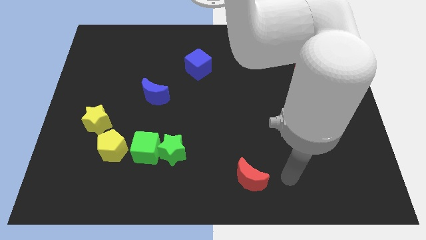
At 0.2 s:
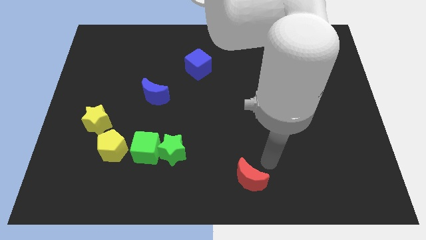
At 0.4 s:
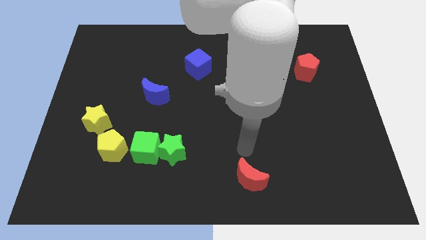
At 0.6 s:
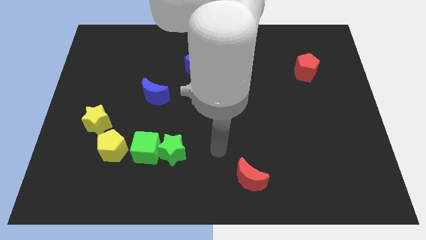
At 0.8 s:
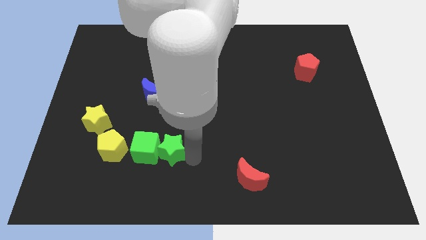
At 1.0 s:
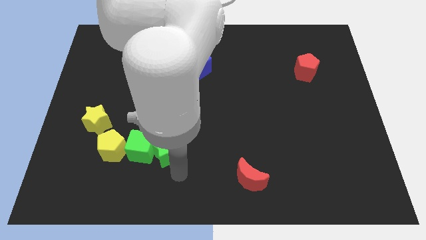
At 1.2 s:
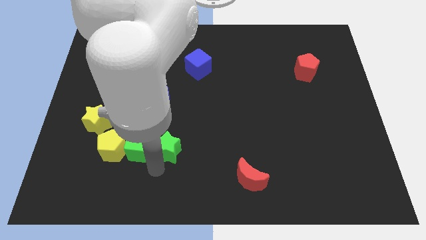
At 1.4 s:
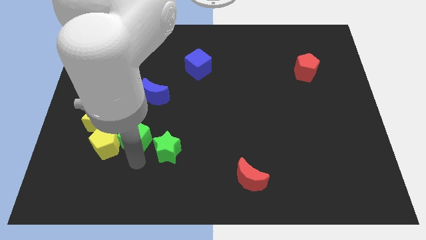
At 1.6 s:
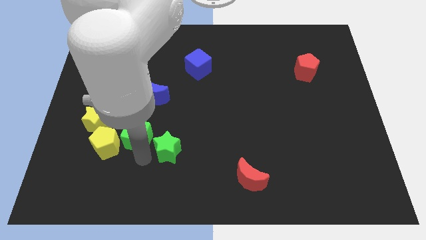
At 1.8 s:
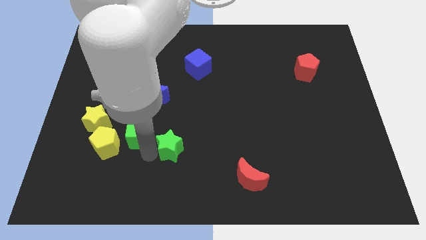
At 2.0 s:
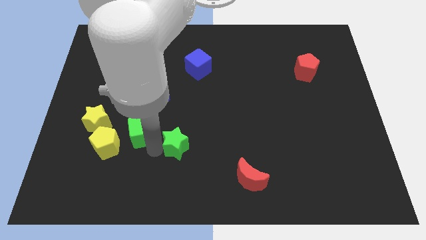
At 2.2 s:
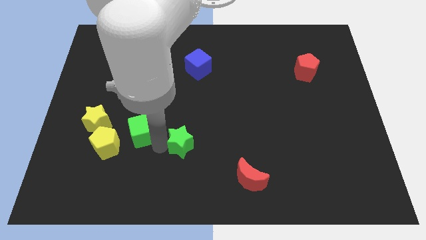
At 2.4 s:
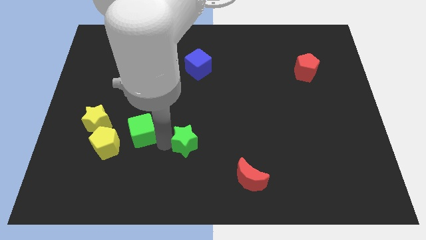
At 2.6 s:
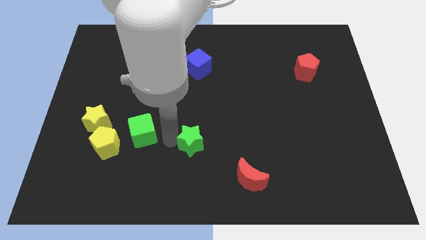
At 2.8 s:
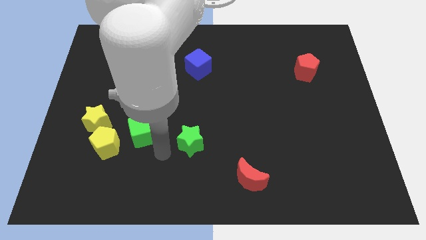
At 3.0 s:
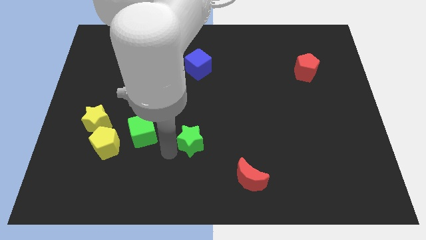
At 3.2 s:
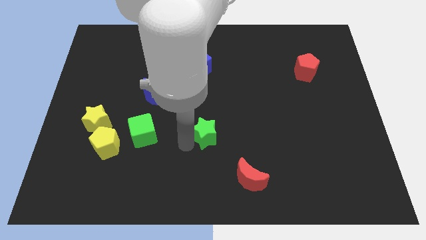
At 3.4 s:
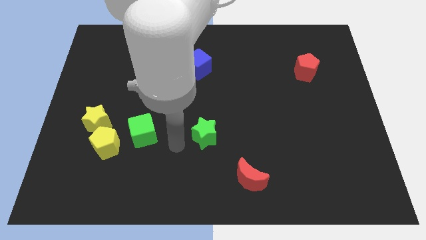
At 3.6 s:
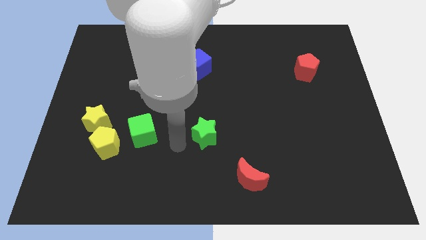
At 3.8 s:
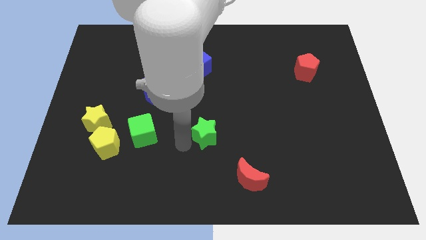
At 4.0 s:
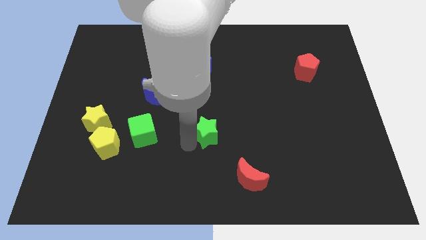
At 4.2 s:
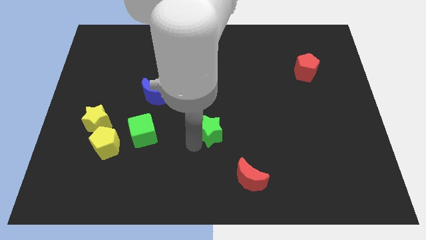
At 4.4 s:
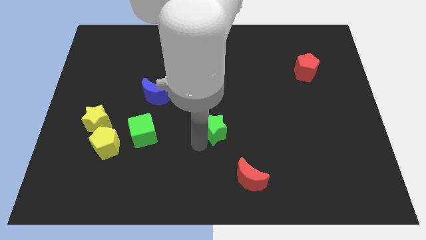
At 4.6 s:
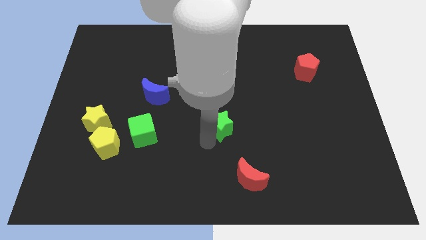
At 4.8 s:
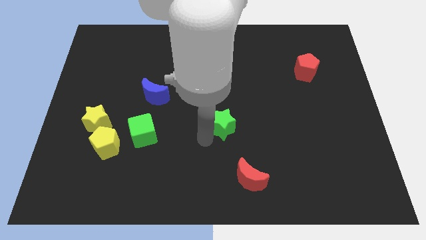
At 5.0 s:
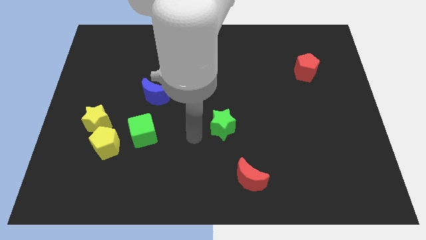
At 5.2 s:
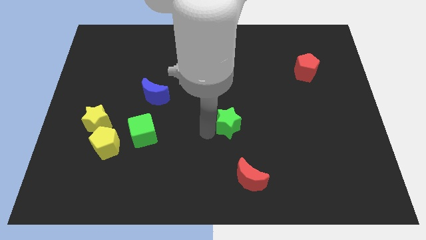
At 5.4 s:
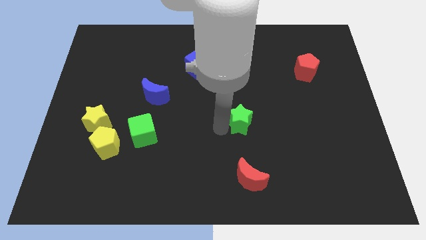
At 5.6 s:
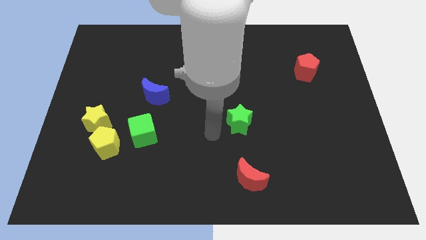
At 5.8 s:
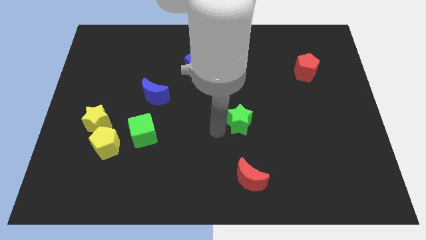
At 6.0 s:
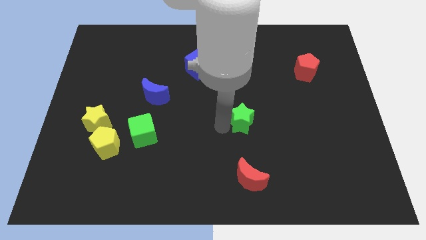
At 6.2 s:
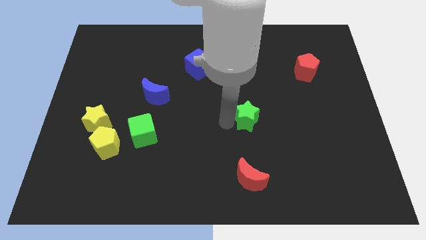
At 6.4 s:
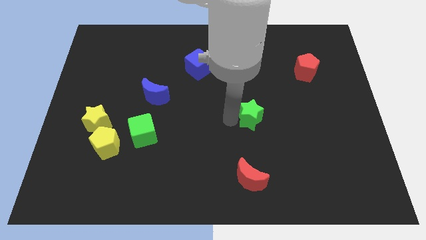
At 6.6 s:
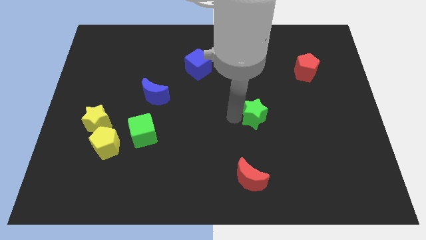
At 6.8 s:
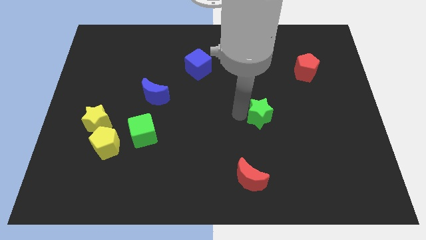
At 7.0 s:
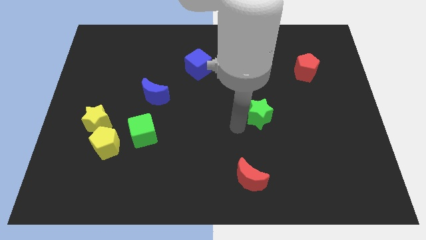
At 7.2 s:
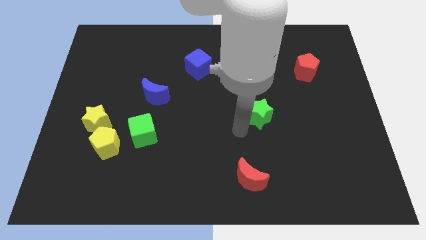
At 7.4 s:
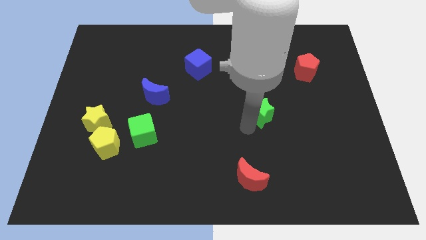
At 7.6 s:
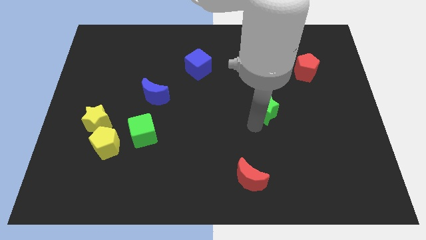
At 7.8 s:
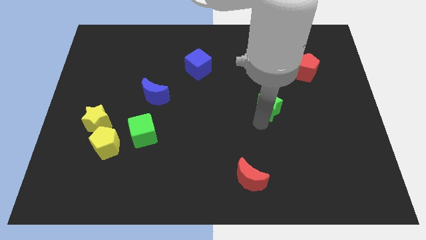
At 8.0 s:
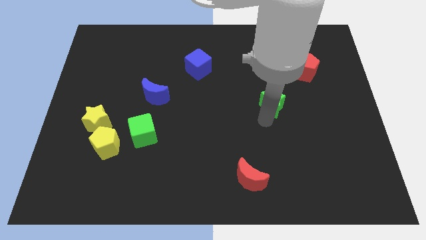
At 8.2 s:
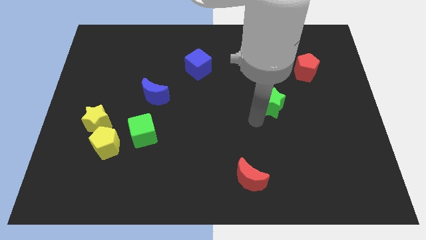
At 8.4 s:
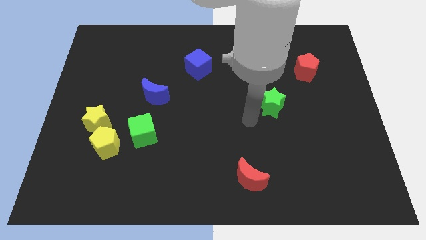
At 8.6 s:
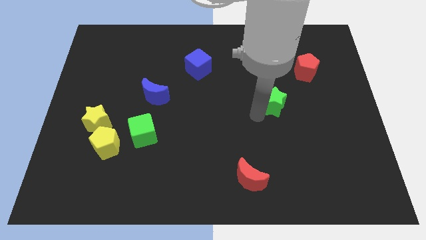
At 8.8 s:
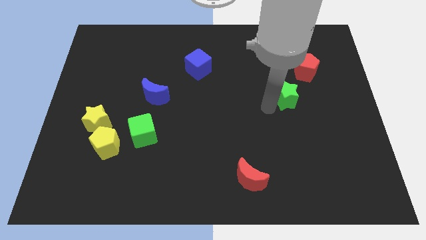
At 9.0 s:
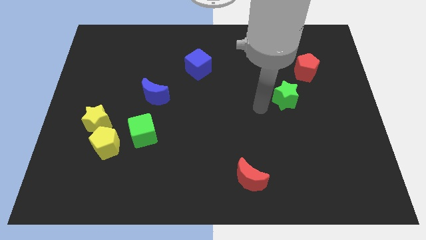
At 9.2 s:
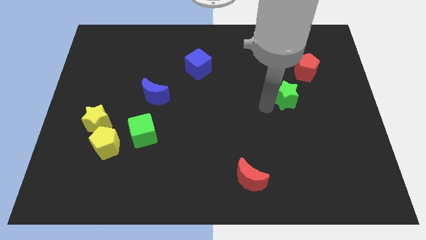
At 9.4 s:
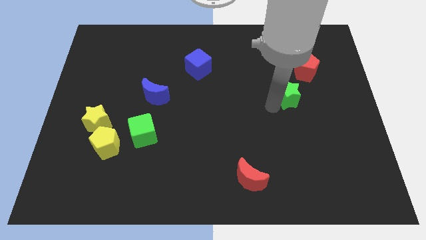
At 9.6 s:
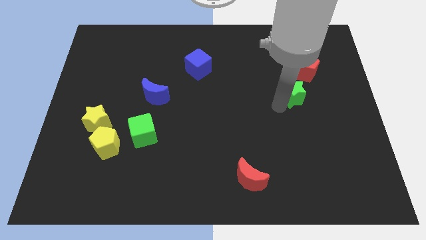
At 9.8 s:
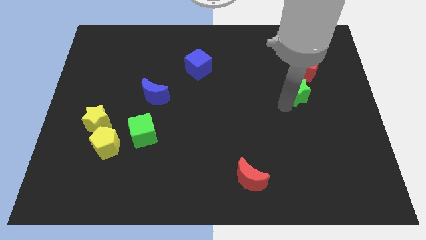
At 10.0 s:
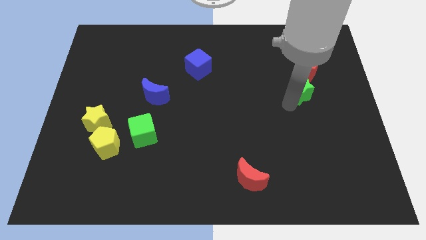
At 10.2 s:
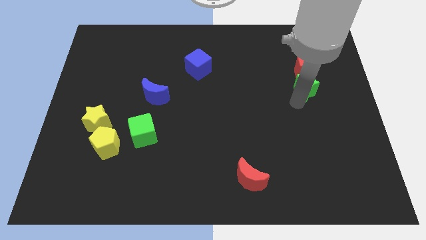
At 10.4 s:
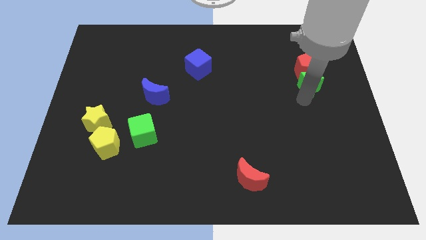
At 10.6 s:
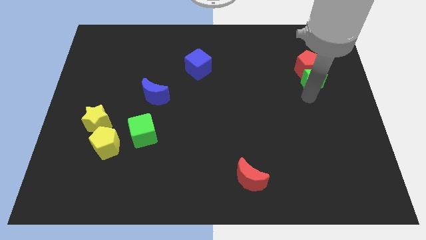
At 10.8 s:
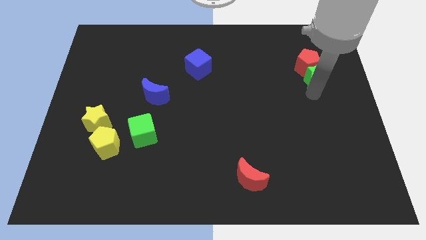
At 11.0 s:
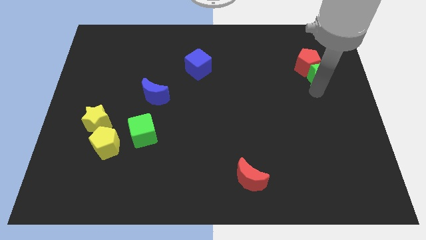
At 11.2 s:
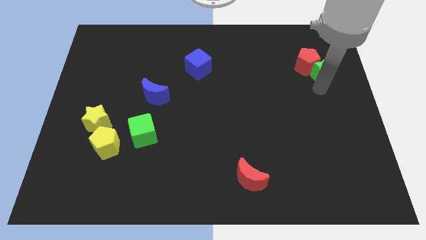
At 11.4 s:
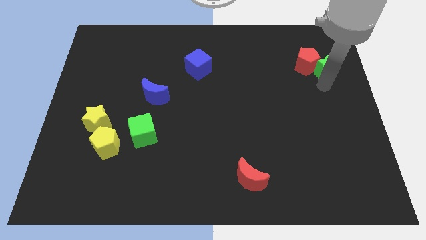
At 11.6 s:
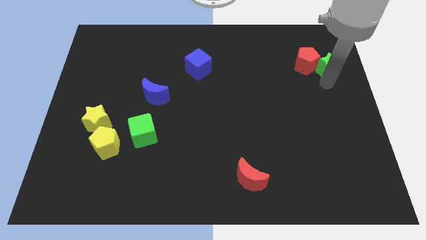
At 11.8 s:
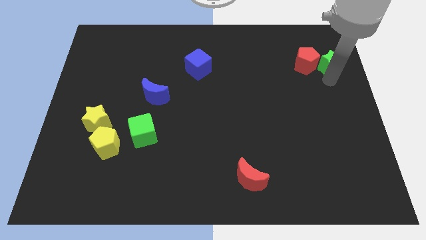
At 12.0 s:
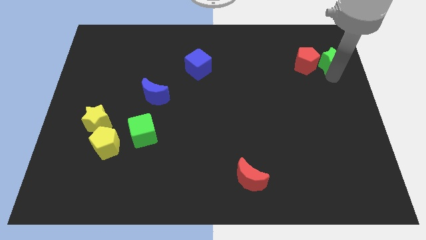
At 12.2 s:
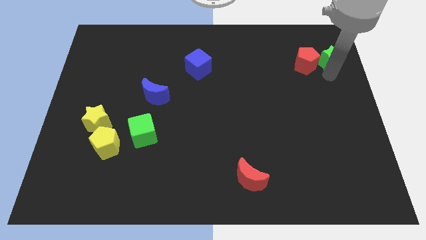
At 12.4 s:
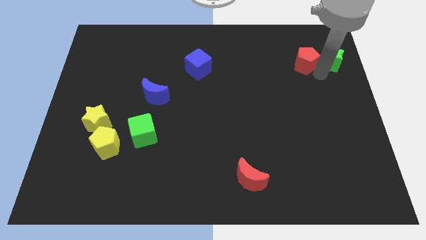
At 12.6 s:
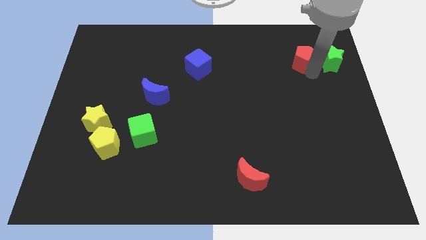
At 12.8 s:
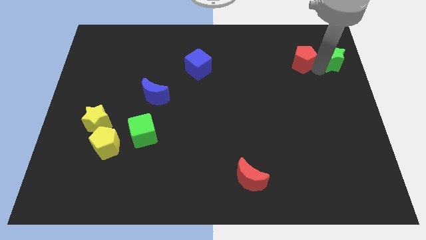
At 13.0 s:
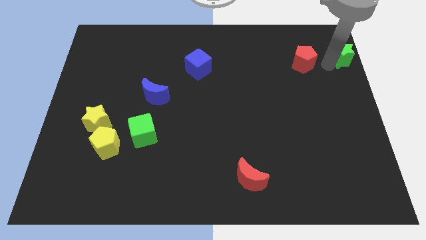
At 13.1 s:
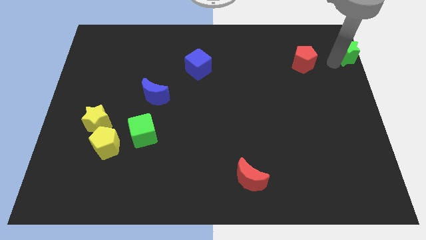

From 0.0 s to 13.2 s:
move the green star to the top right of the board
